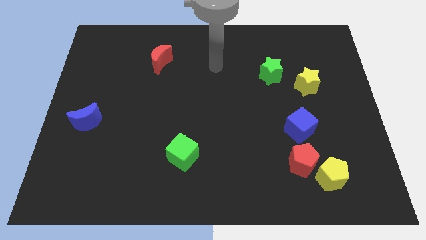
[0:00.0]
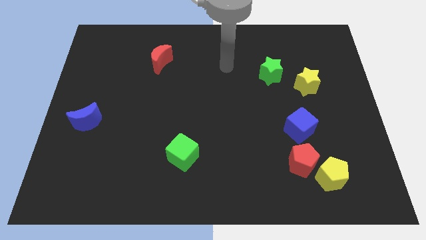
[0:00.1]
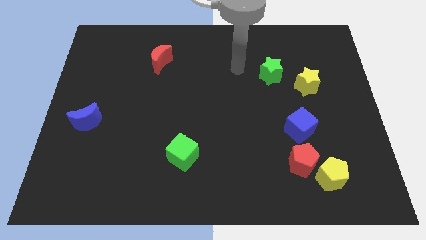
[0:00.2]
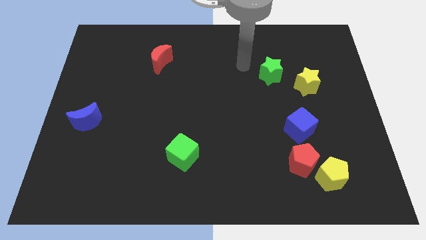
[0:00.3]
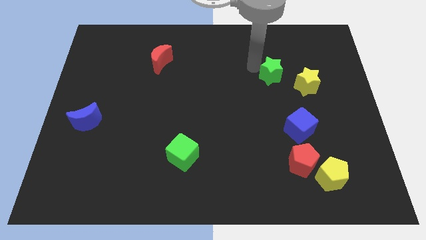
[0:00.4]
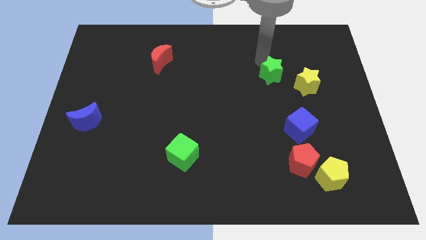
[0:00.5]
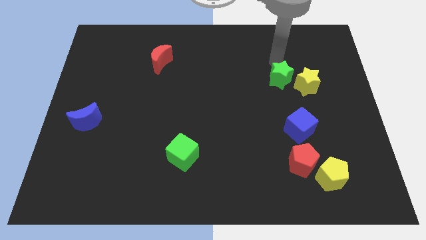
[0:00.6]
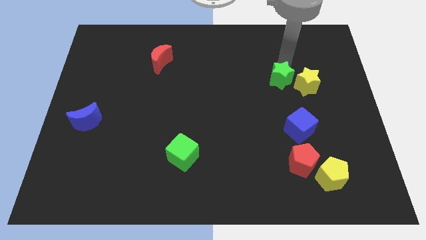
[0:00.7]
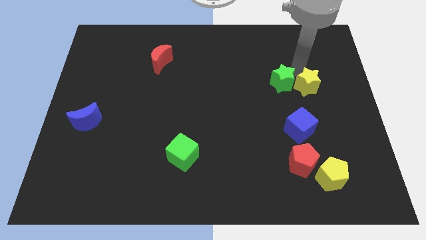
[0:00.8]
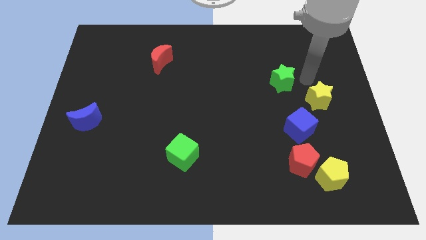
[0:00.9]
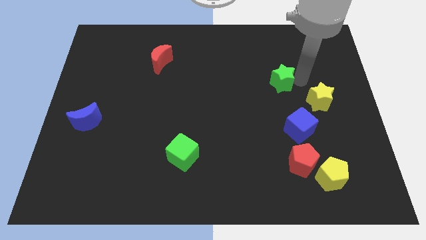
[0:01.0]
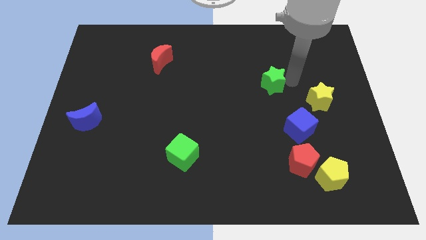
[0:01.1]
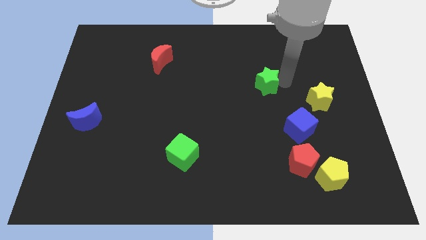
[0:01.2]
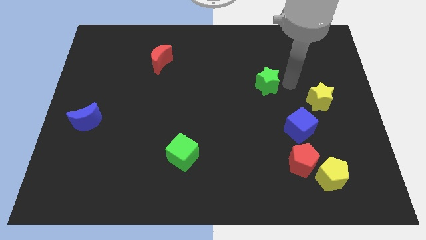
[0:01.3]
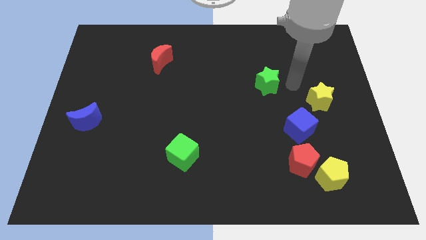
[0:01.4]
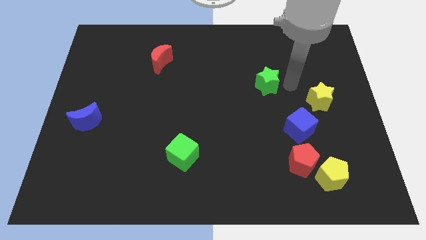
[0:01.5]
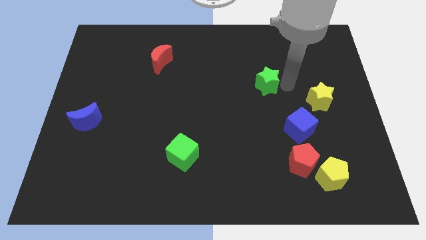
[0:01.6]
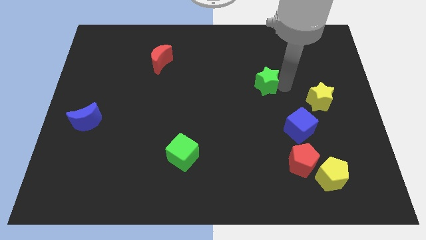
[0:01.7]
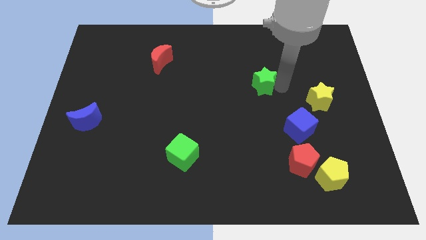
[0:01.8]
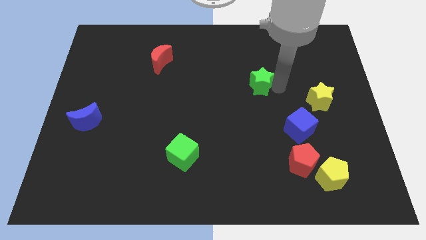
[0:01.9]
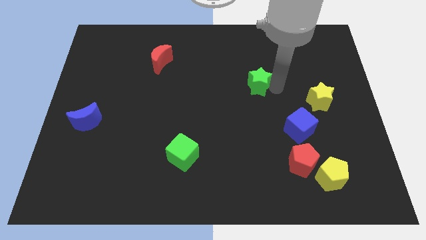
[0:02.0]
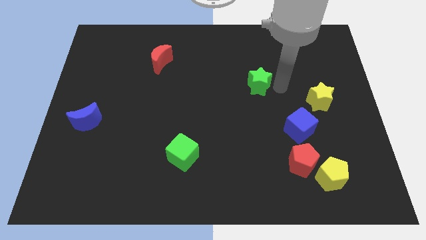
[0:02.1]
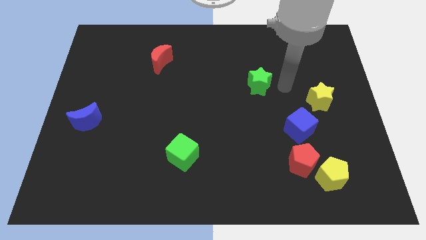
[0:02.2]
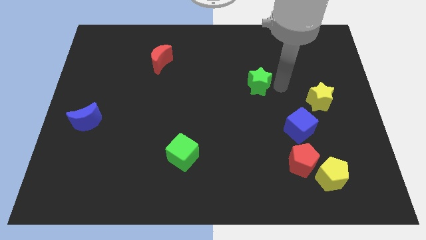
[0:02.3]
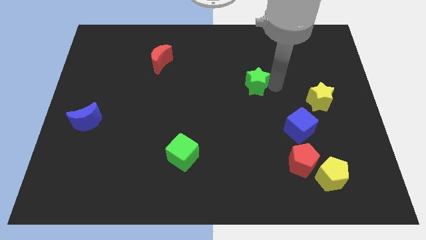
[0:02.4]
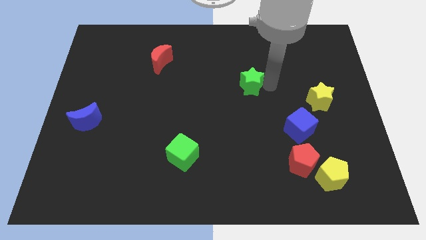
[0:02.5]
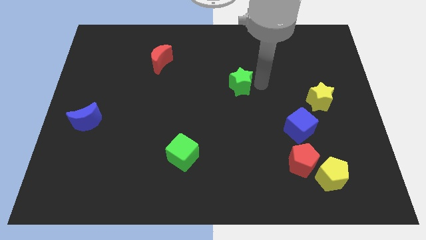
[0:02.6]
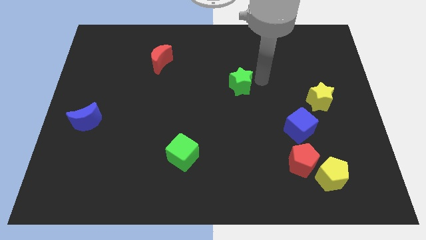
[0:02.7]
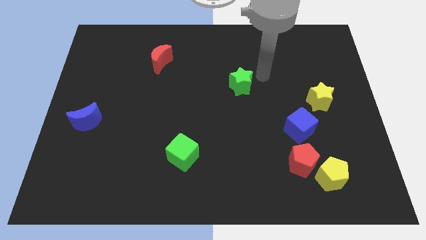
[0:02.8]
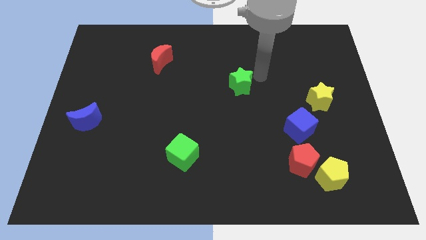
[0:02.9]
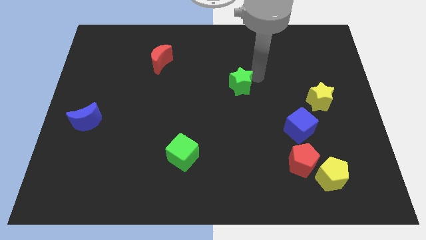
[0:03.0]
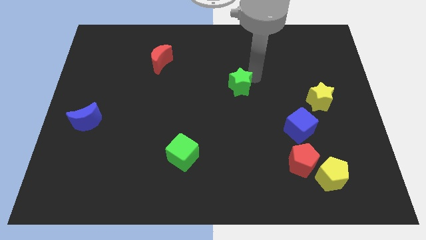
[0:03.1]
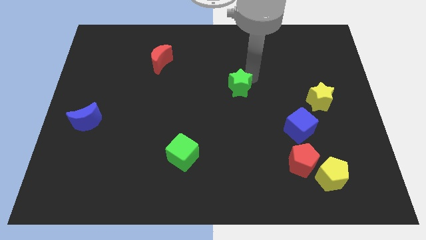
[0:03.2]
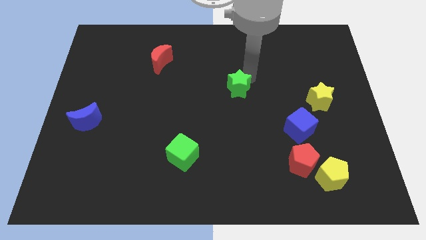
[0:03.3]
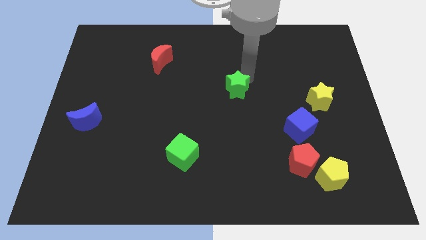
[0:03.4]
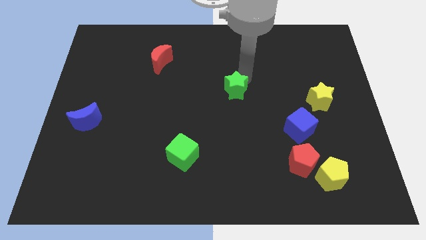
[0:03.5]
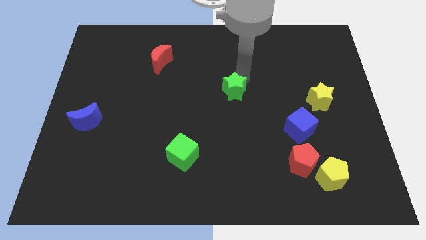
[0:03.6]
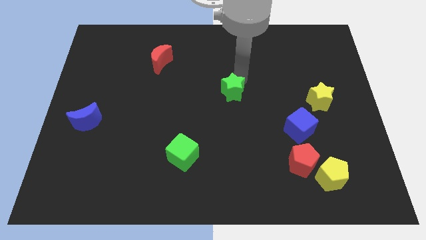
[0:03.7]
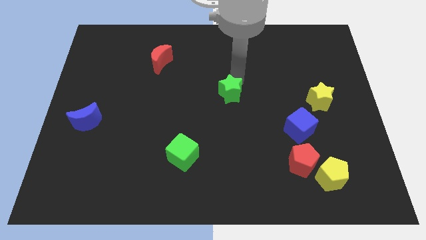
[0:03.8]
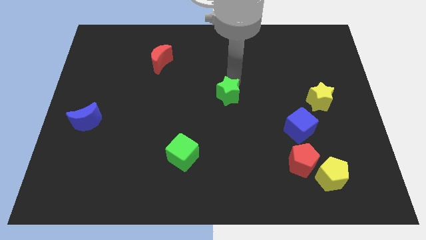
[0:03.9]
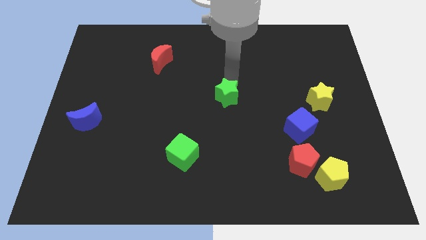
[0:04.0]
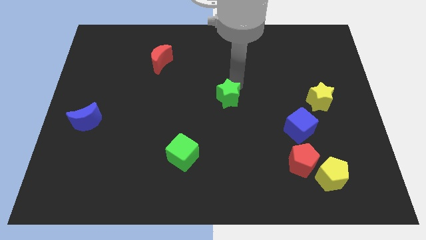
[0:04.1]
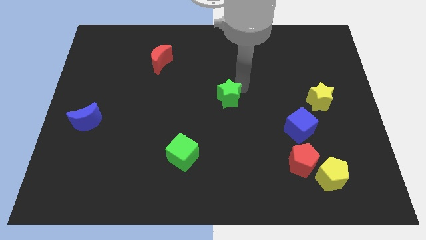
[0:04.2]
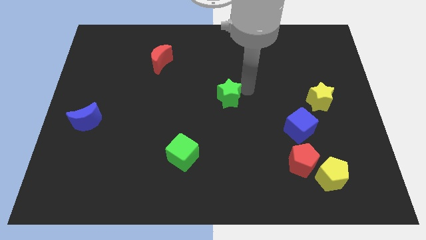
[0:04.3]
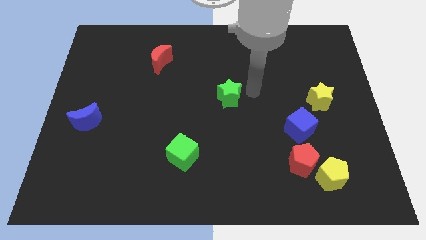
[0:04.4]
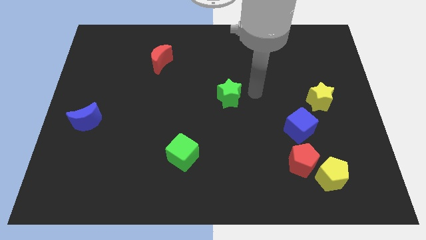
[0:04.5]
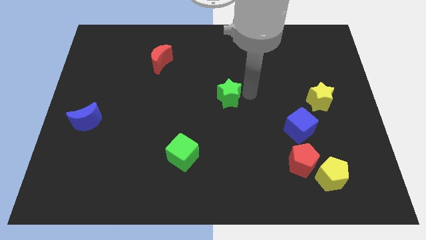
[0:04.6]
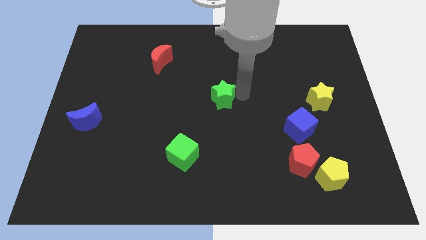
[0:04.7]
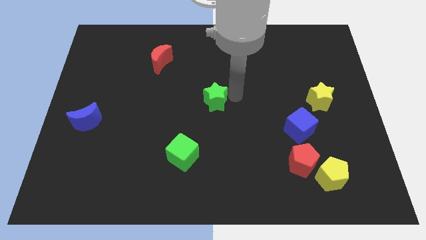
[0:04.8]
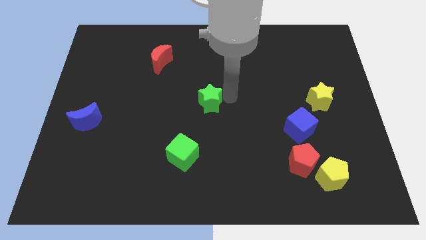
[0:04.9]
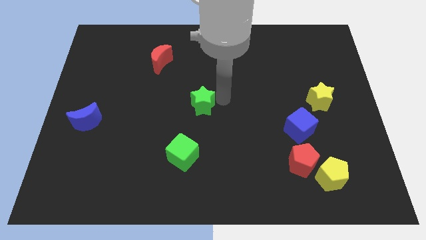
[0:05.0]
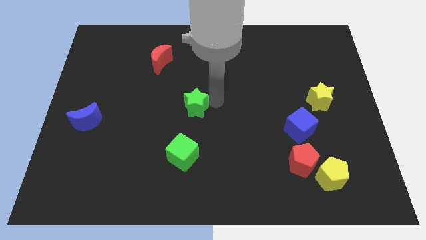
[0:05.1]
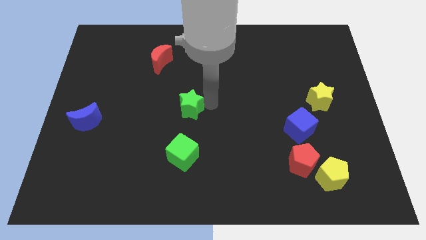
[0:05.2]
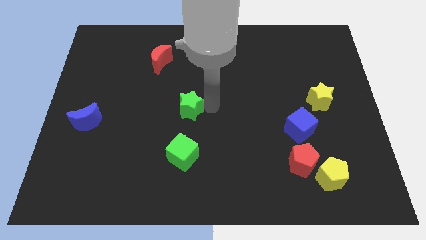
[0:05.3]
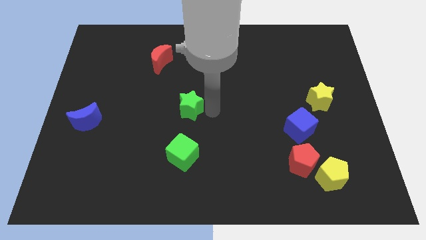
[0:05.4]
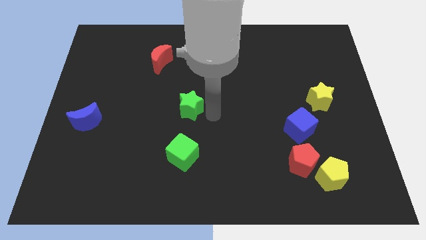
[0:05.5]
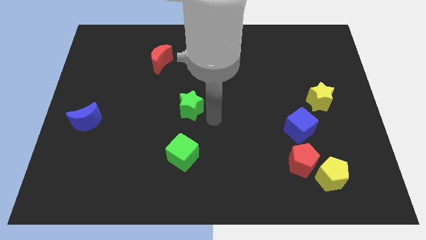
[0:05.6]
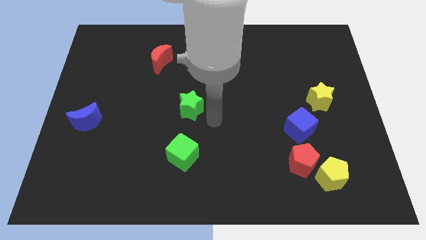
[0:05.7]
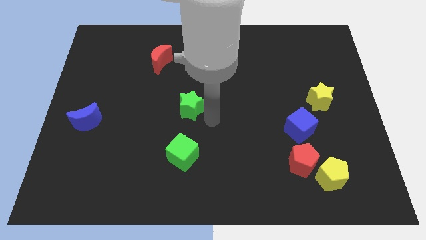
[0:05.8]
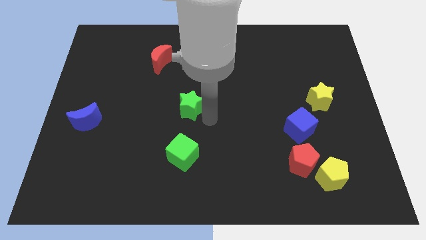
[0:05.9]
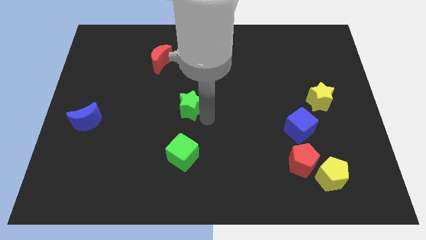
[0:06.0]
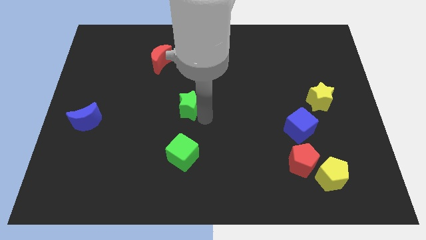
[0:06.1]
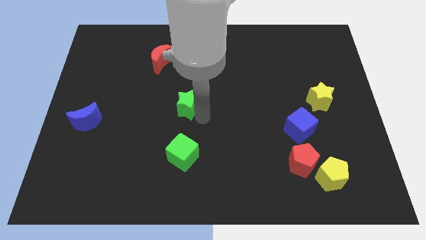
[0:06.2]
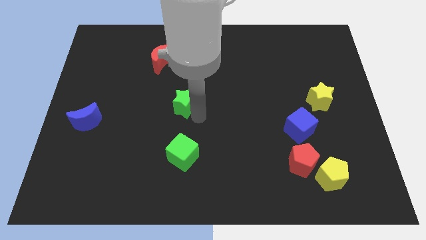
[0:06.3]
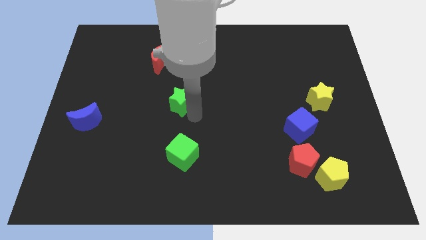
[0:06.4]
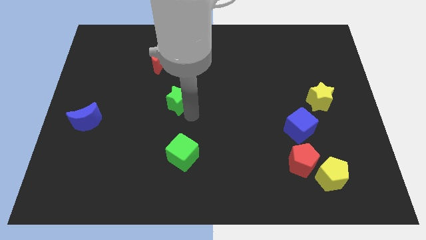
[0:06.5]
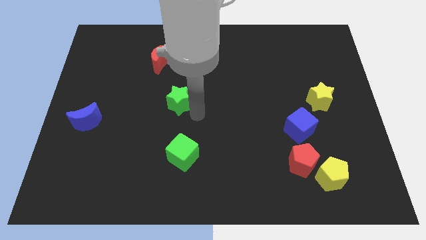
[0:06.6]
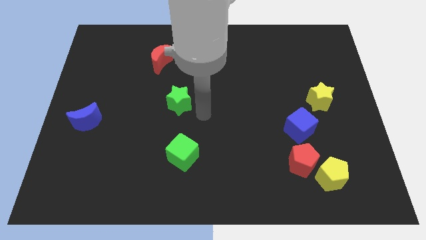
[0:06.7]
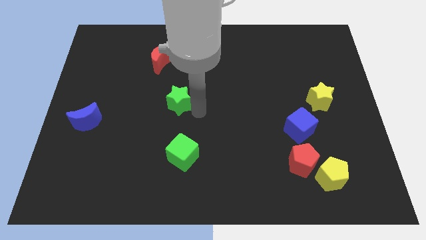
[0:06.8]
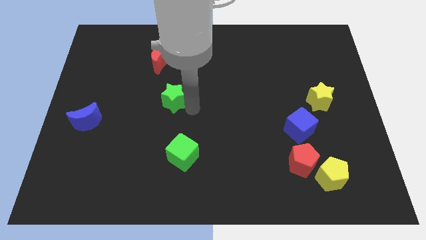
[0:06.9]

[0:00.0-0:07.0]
push the green star to the bottom of the red moon

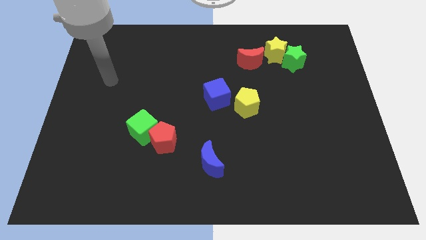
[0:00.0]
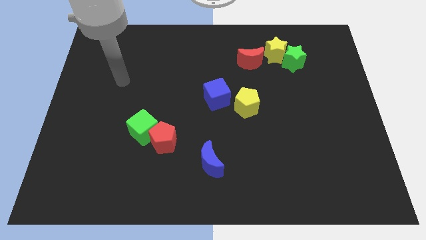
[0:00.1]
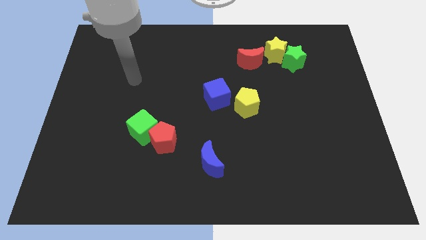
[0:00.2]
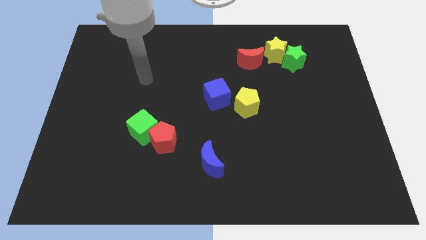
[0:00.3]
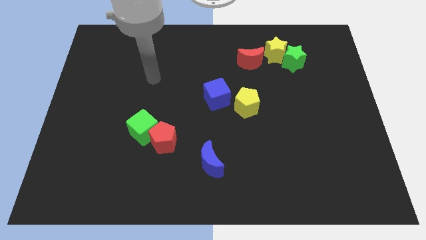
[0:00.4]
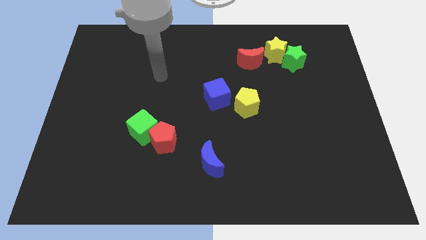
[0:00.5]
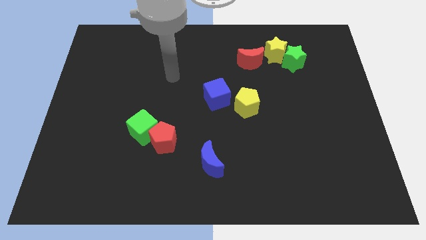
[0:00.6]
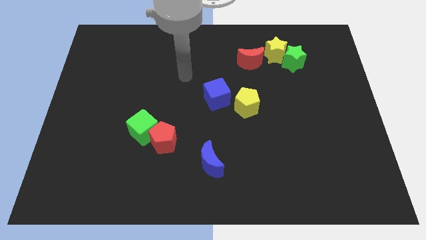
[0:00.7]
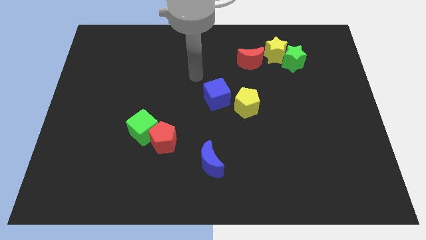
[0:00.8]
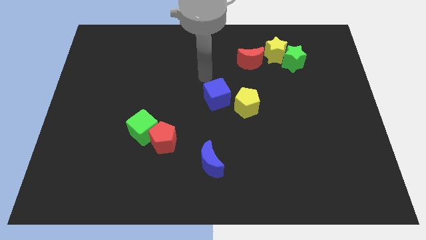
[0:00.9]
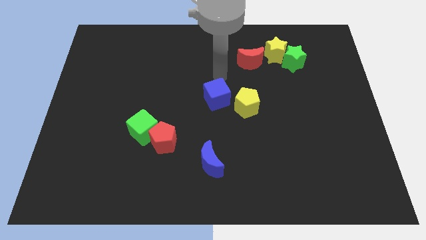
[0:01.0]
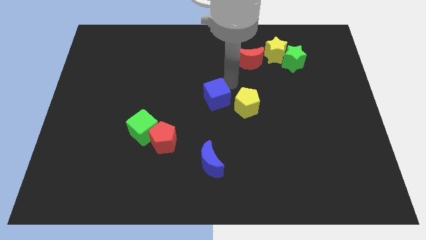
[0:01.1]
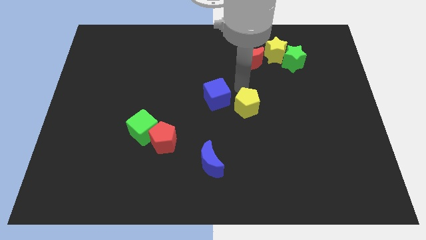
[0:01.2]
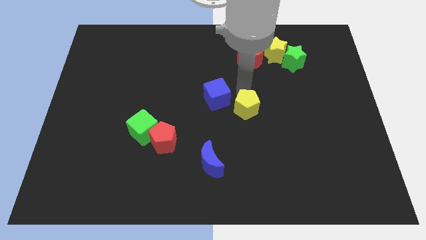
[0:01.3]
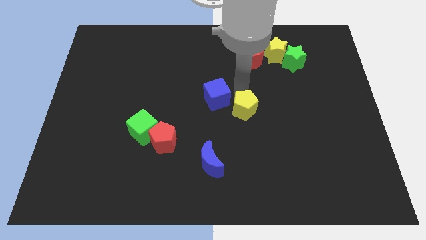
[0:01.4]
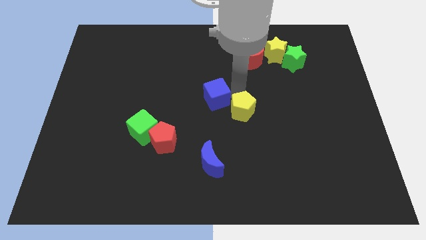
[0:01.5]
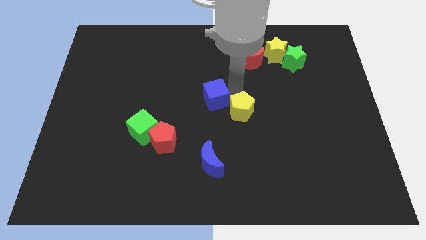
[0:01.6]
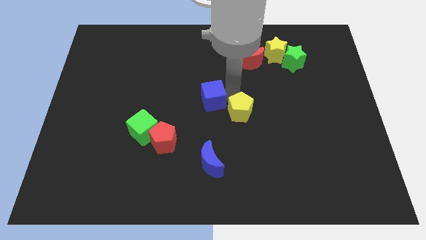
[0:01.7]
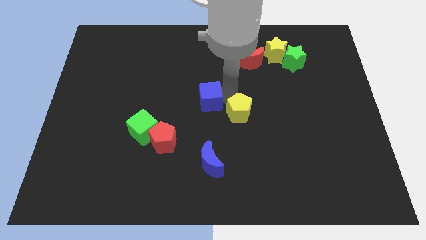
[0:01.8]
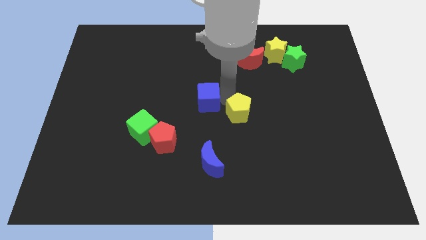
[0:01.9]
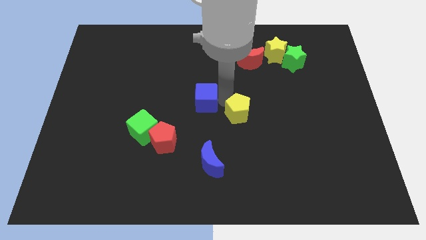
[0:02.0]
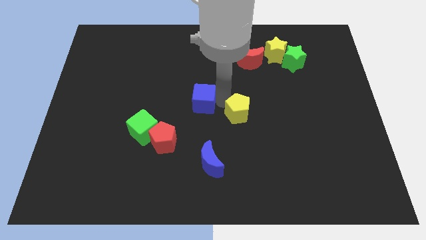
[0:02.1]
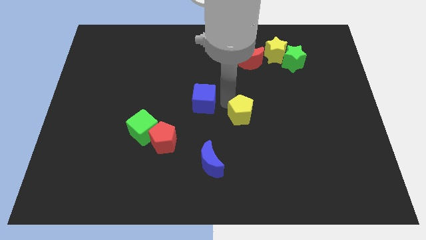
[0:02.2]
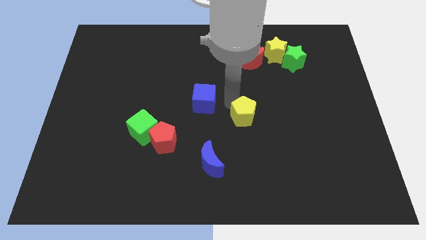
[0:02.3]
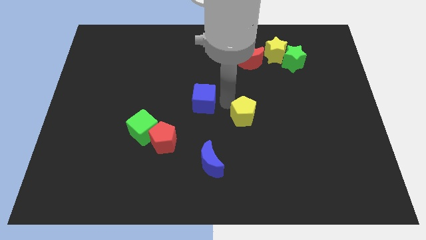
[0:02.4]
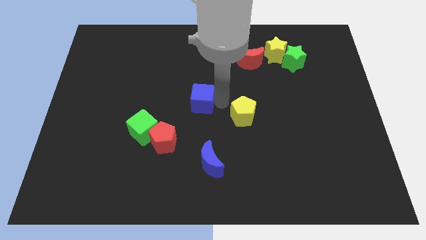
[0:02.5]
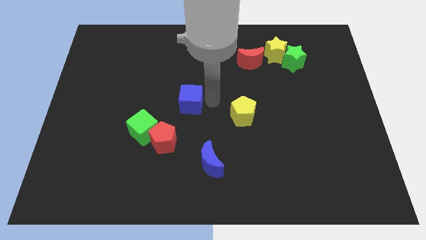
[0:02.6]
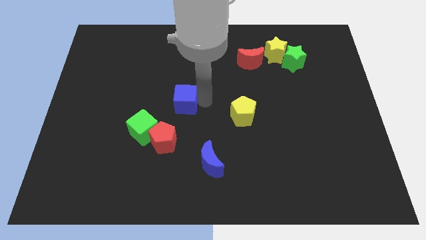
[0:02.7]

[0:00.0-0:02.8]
move the blue cube to the top of the red pentagon
